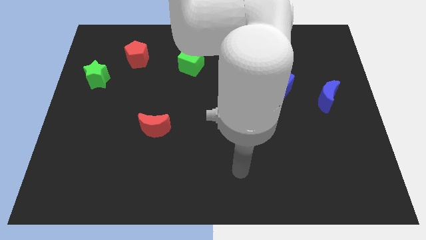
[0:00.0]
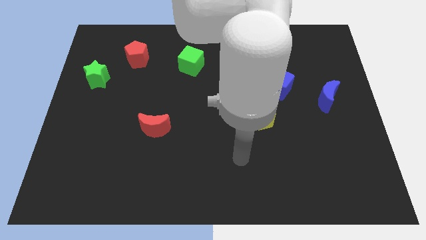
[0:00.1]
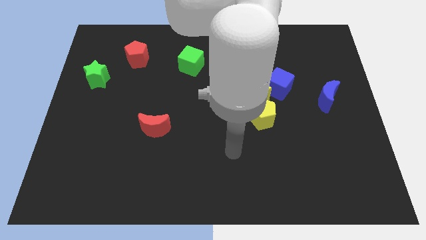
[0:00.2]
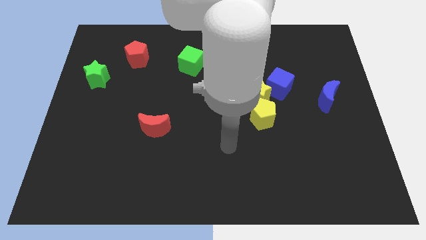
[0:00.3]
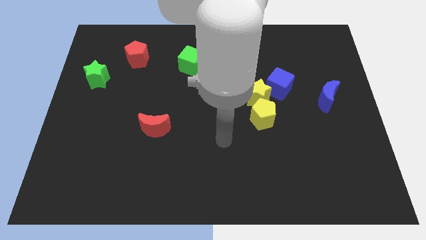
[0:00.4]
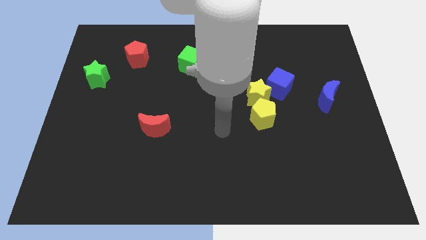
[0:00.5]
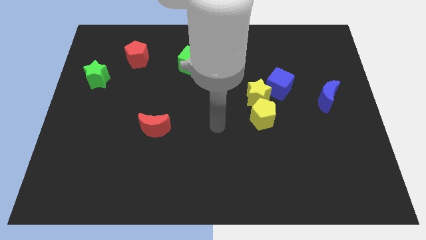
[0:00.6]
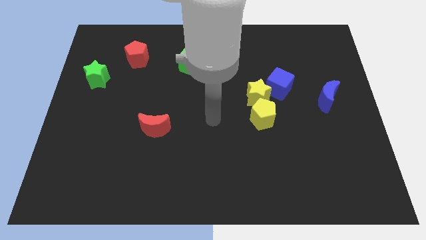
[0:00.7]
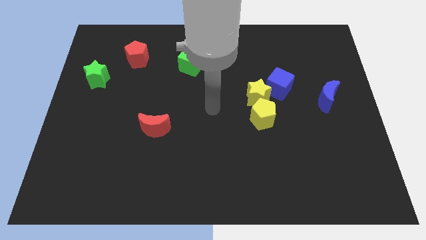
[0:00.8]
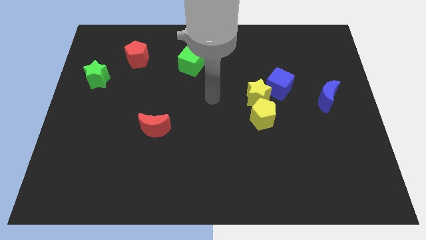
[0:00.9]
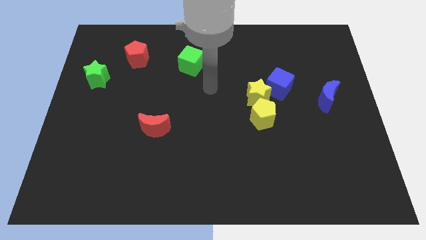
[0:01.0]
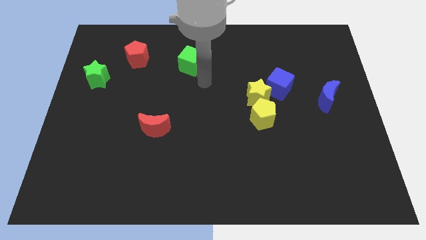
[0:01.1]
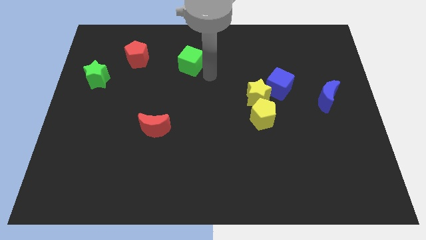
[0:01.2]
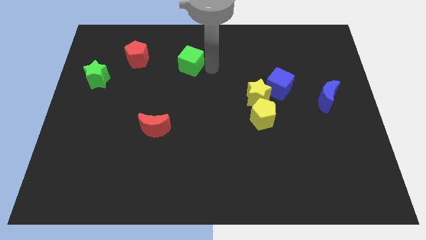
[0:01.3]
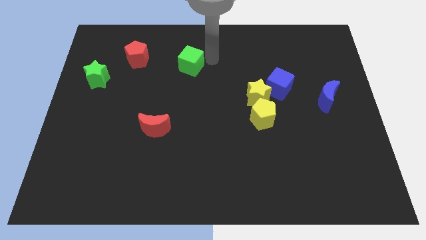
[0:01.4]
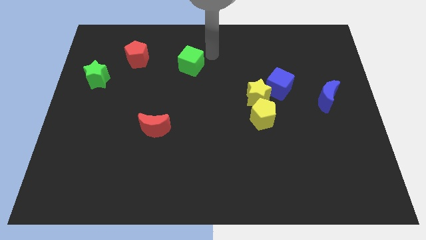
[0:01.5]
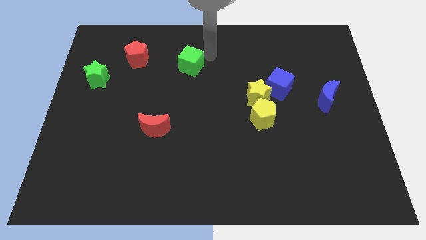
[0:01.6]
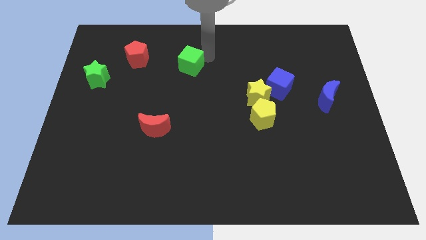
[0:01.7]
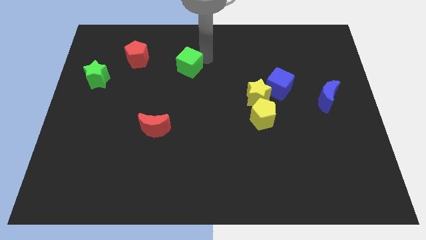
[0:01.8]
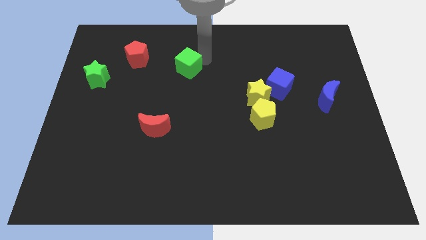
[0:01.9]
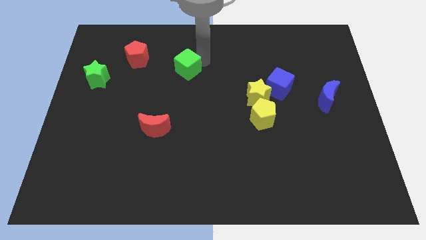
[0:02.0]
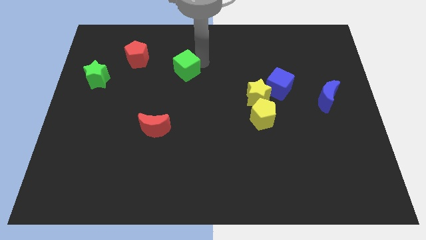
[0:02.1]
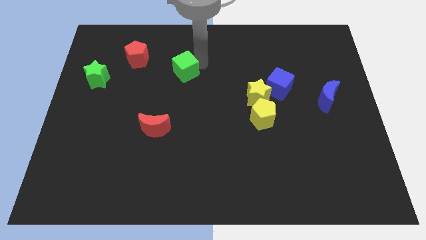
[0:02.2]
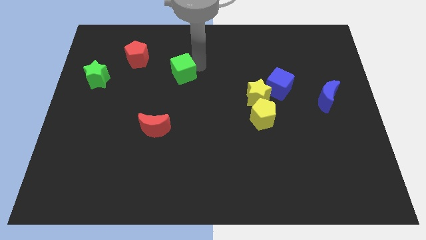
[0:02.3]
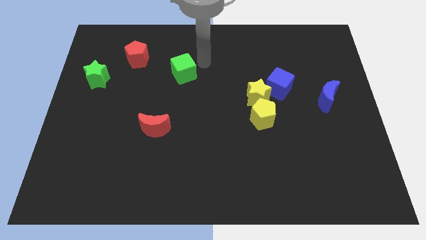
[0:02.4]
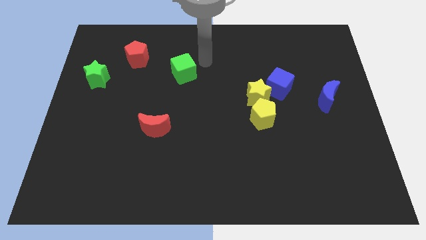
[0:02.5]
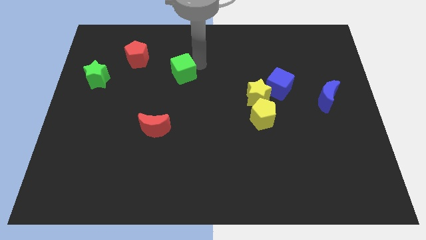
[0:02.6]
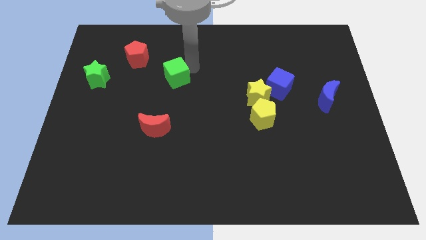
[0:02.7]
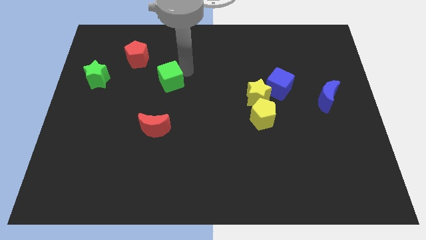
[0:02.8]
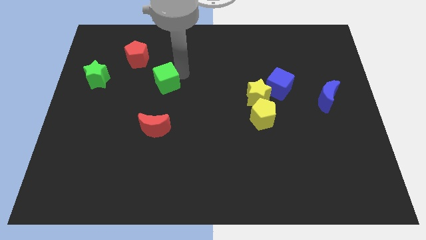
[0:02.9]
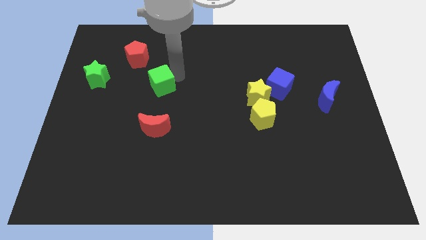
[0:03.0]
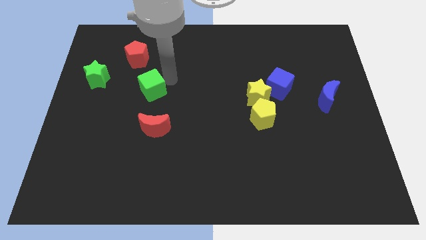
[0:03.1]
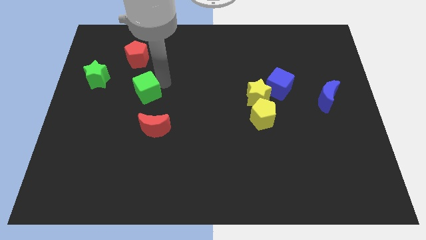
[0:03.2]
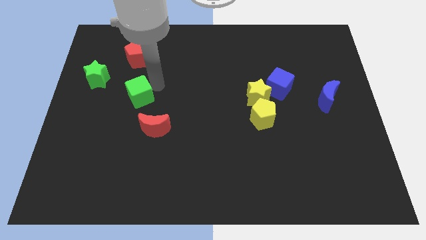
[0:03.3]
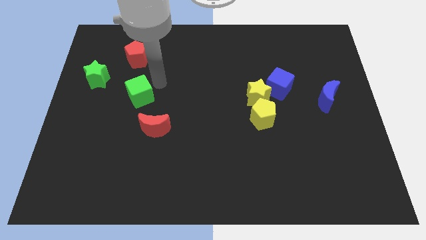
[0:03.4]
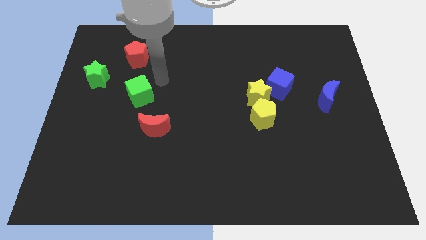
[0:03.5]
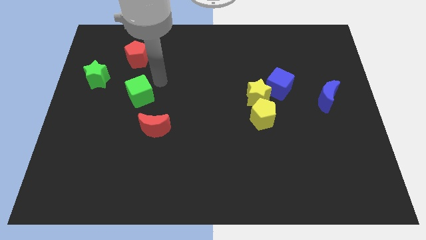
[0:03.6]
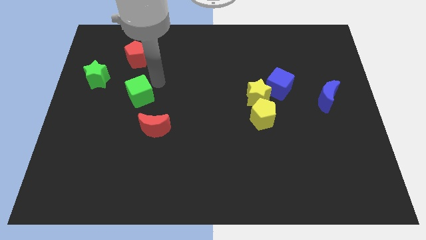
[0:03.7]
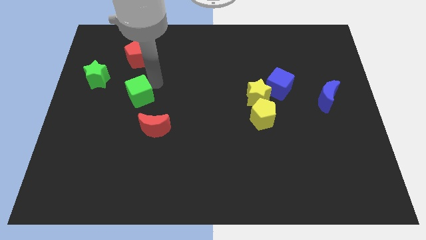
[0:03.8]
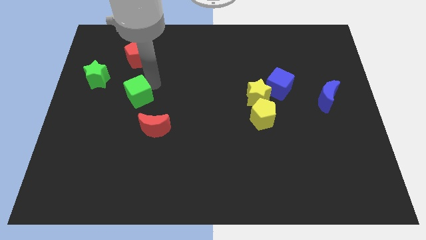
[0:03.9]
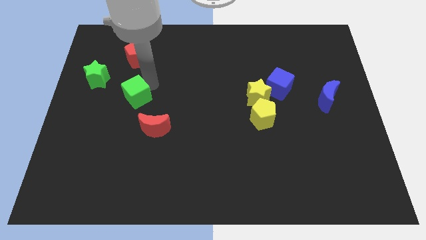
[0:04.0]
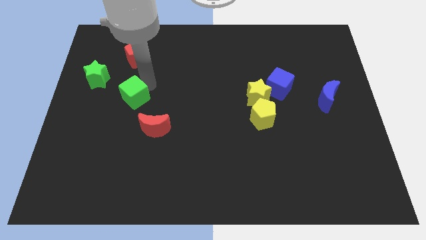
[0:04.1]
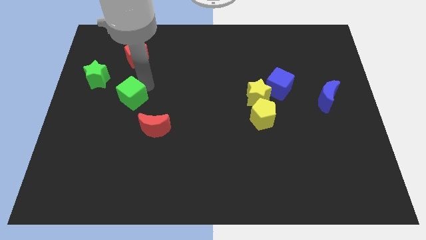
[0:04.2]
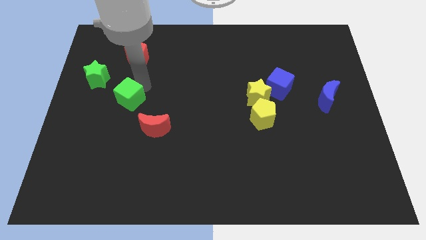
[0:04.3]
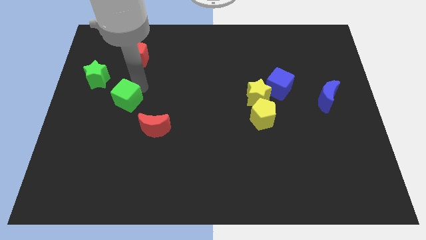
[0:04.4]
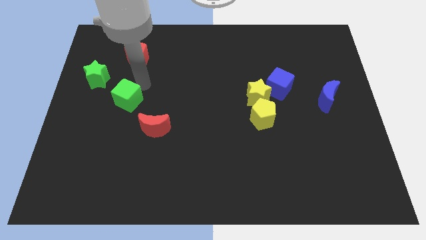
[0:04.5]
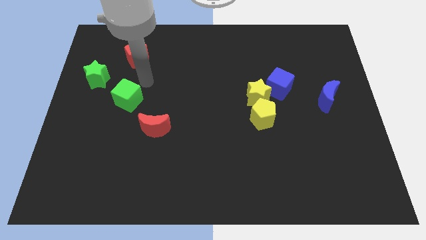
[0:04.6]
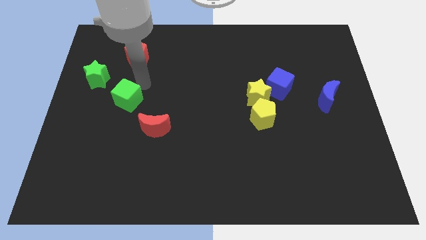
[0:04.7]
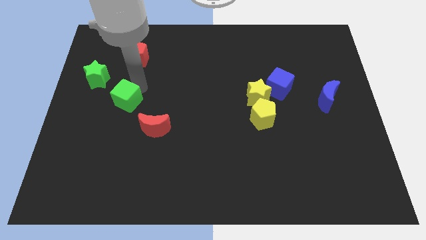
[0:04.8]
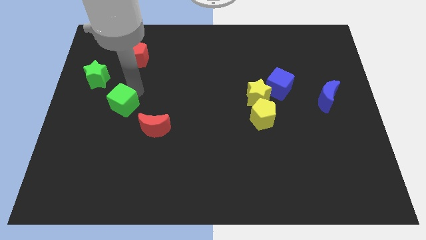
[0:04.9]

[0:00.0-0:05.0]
slide the green cube down and then to the left

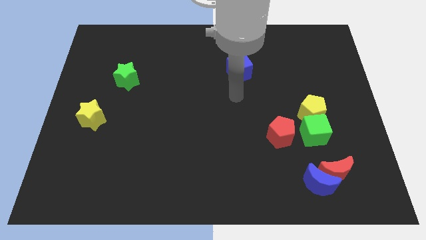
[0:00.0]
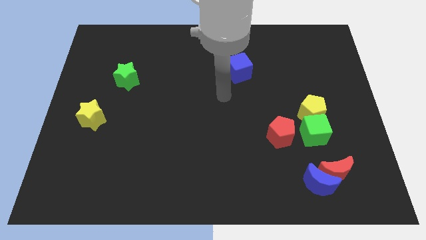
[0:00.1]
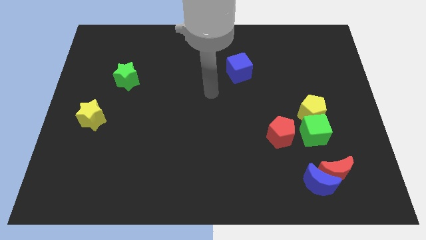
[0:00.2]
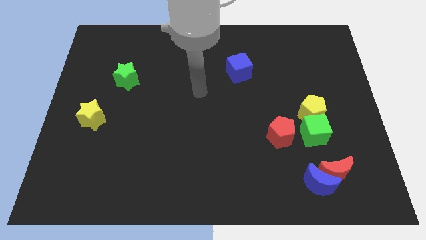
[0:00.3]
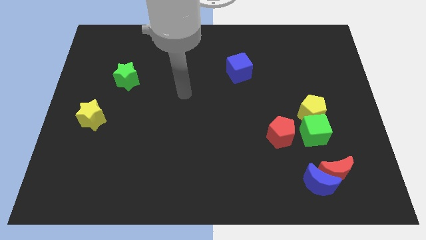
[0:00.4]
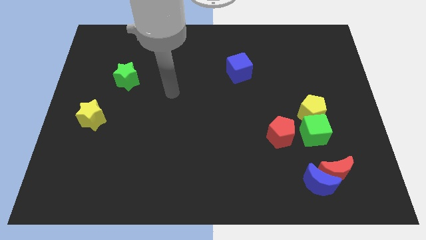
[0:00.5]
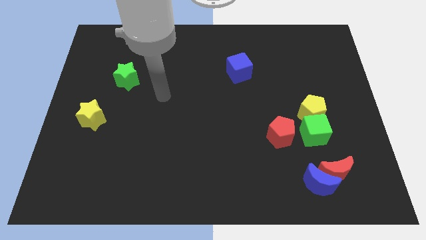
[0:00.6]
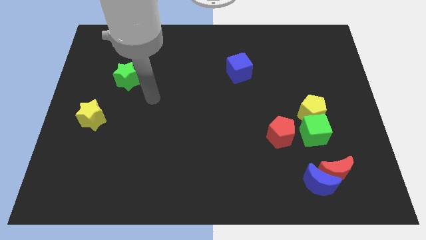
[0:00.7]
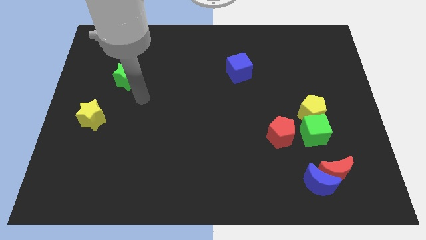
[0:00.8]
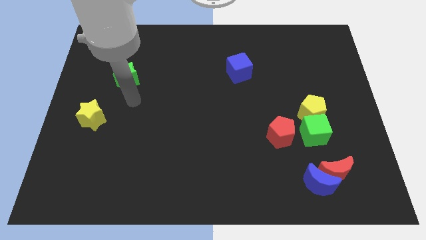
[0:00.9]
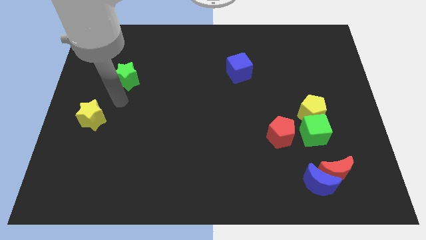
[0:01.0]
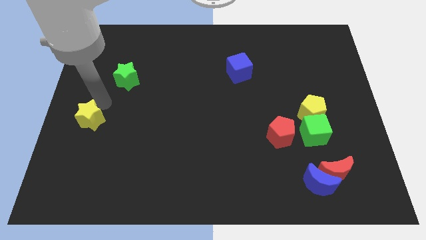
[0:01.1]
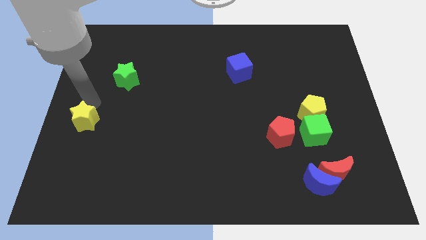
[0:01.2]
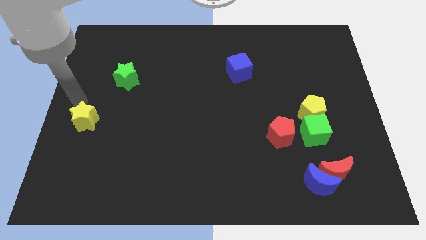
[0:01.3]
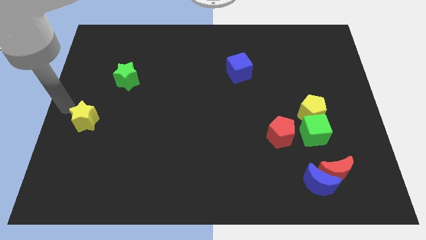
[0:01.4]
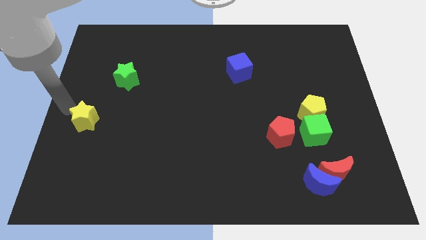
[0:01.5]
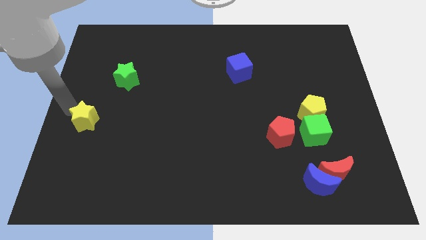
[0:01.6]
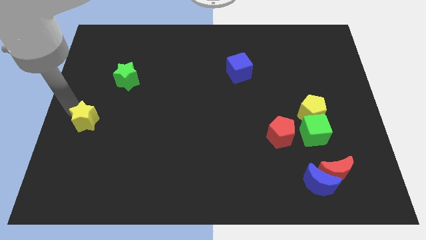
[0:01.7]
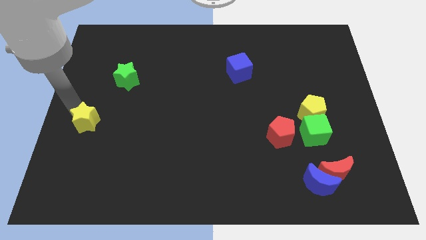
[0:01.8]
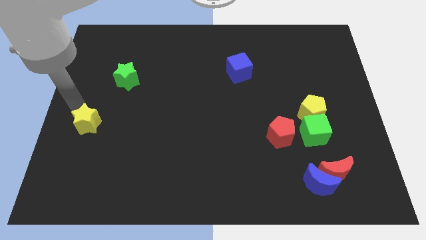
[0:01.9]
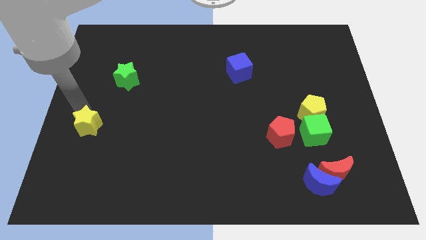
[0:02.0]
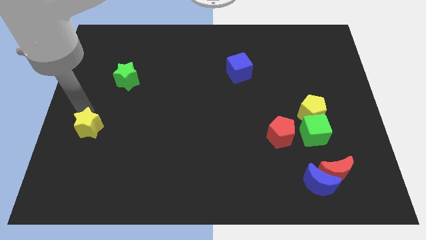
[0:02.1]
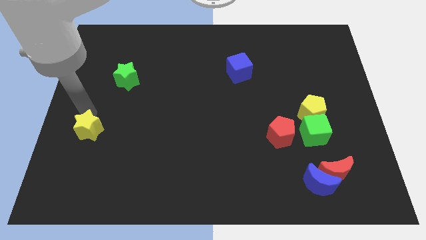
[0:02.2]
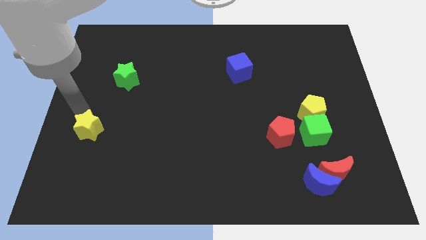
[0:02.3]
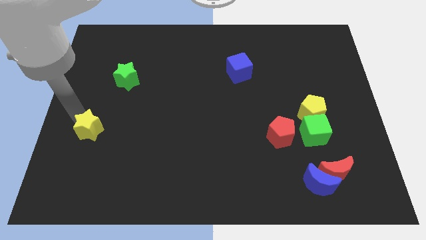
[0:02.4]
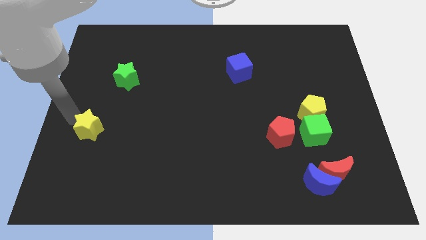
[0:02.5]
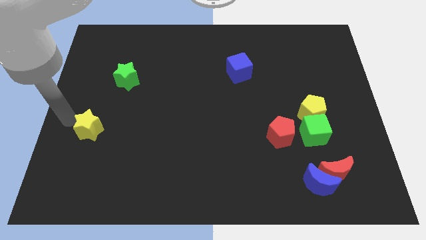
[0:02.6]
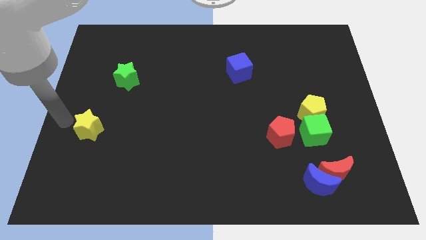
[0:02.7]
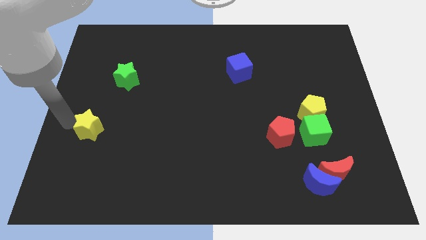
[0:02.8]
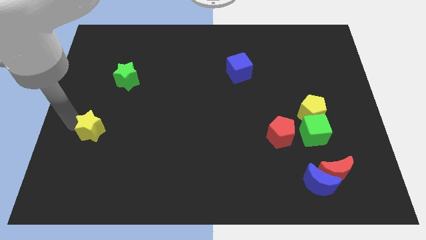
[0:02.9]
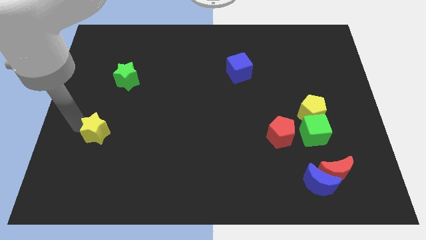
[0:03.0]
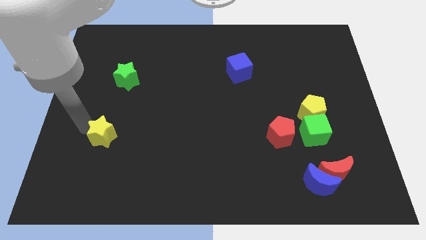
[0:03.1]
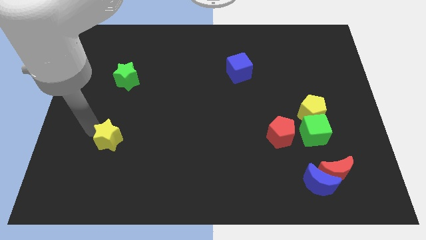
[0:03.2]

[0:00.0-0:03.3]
push the yellow star a bit down and to the right

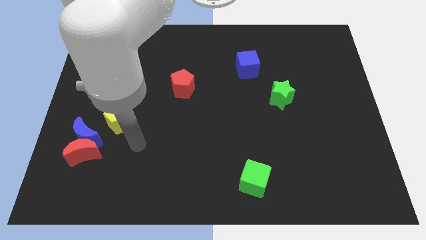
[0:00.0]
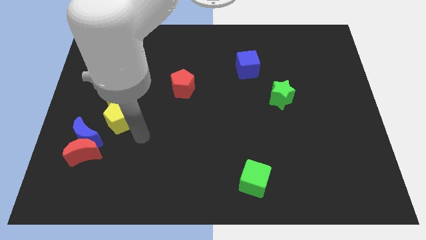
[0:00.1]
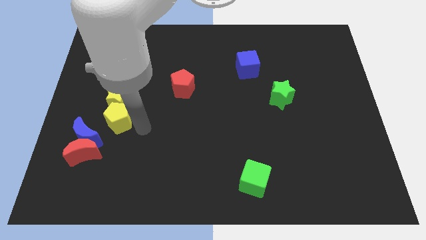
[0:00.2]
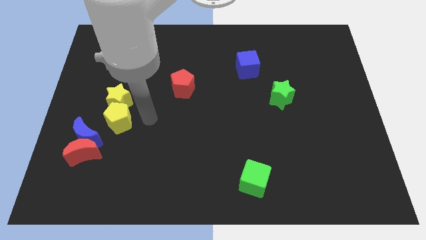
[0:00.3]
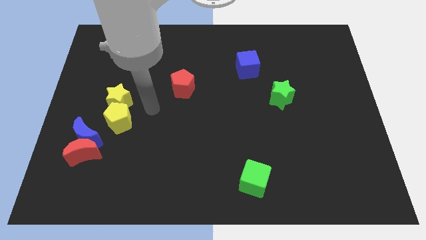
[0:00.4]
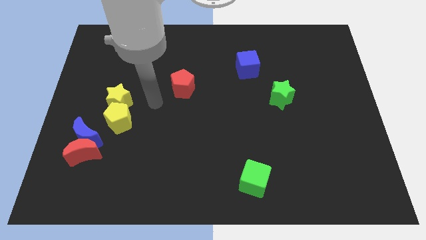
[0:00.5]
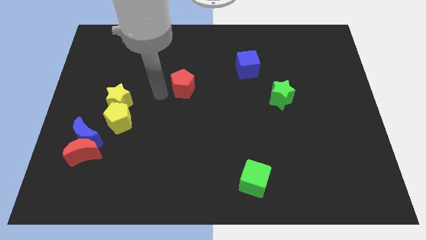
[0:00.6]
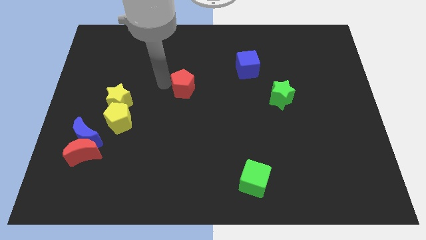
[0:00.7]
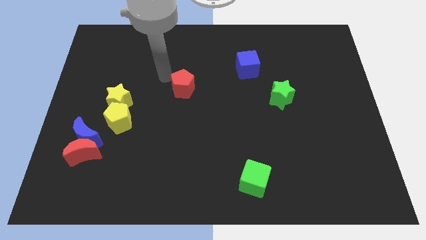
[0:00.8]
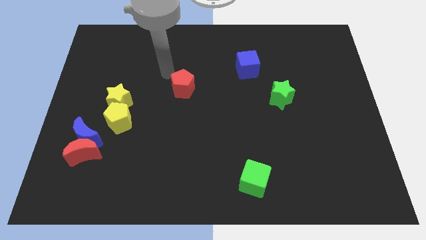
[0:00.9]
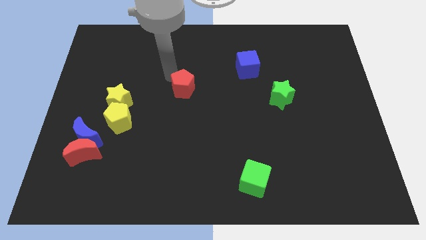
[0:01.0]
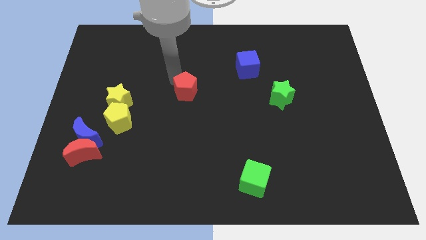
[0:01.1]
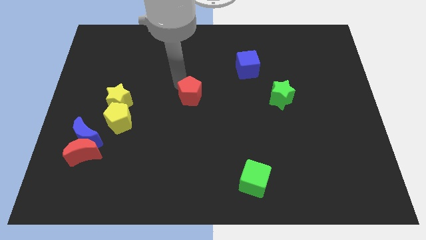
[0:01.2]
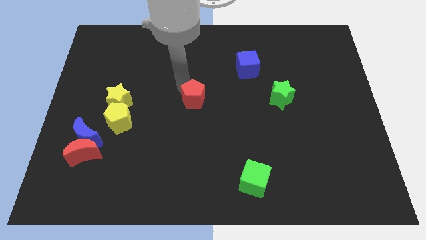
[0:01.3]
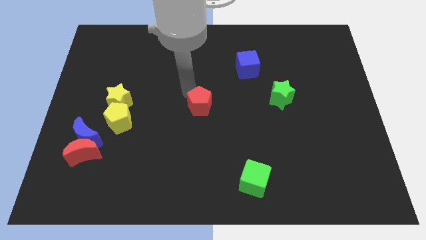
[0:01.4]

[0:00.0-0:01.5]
slightly move the red pentagon downwards and right diagonally
